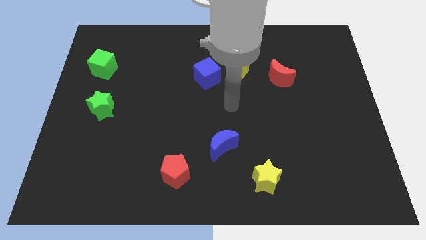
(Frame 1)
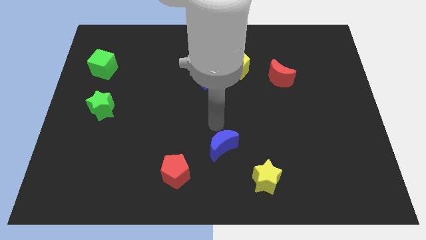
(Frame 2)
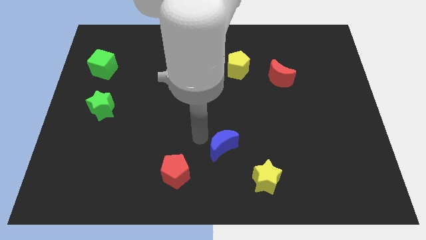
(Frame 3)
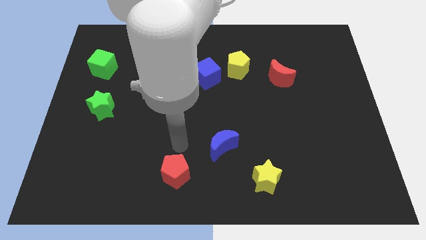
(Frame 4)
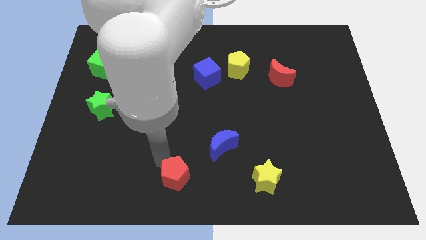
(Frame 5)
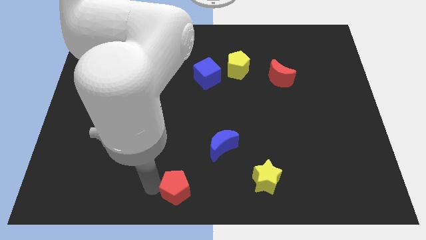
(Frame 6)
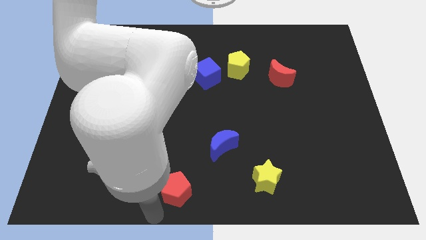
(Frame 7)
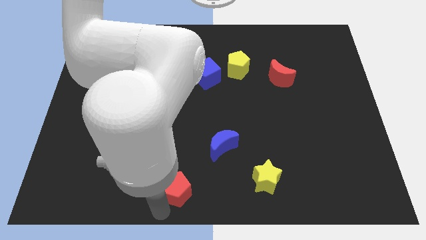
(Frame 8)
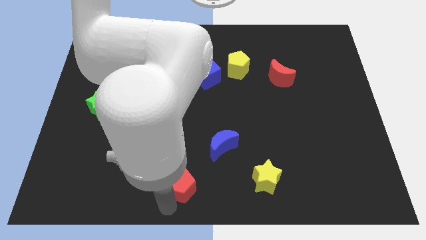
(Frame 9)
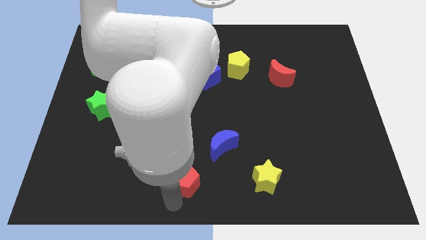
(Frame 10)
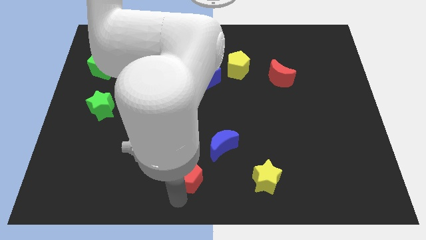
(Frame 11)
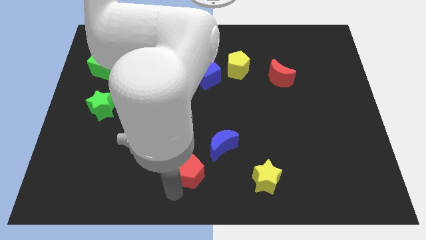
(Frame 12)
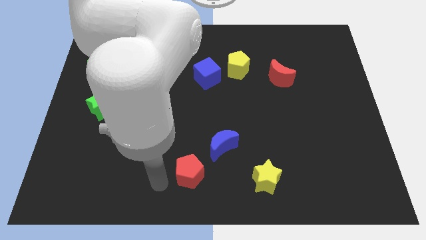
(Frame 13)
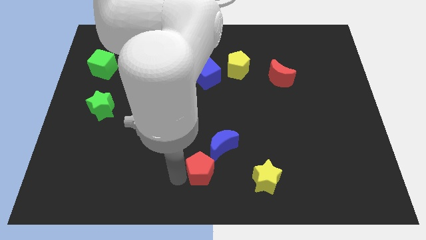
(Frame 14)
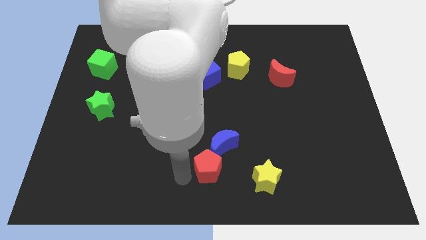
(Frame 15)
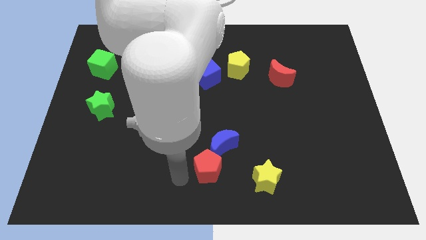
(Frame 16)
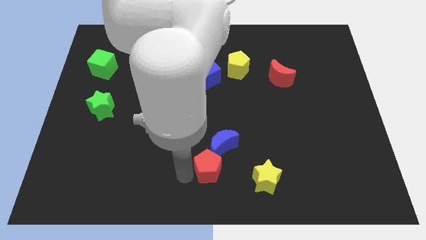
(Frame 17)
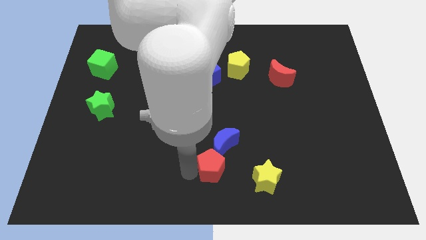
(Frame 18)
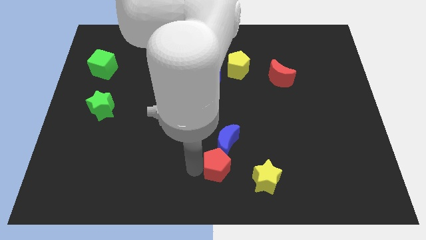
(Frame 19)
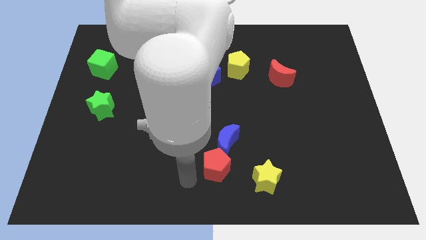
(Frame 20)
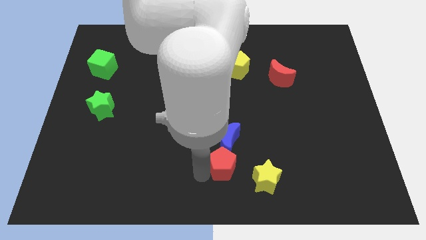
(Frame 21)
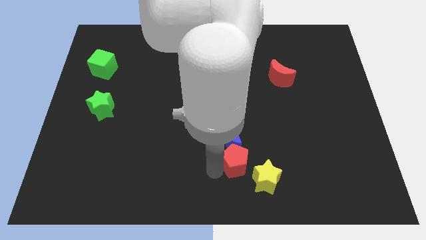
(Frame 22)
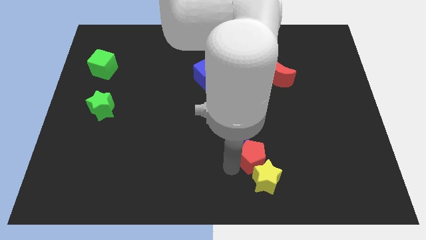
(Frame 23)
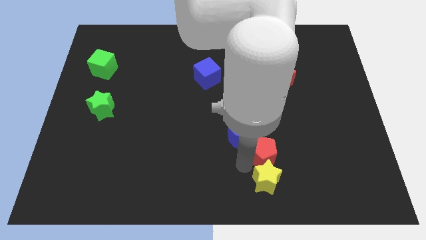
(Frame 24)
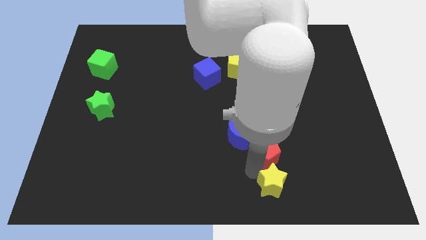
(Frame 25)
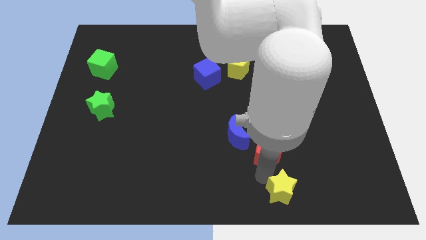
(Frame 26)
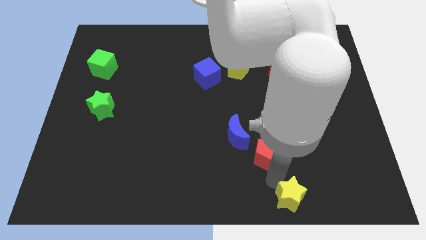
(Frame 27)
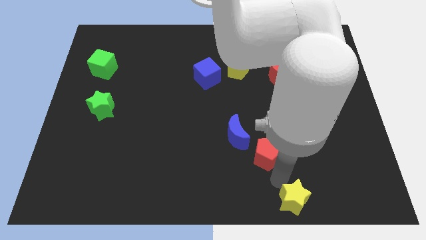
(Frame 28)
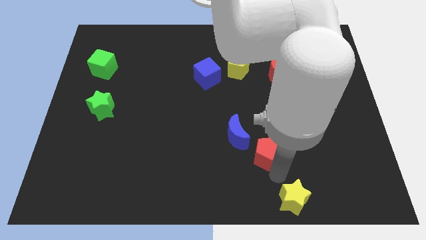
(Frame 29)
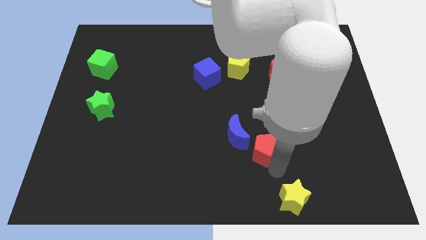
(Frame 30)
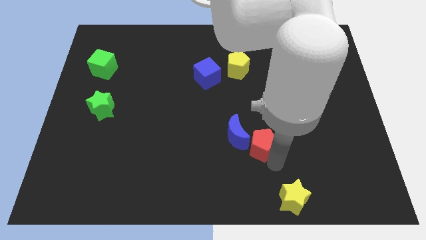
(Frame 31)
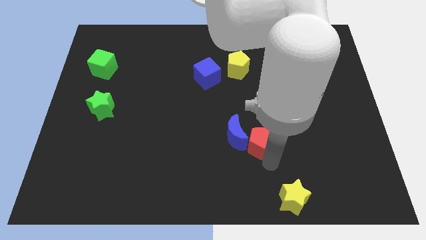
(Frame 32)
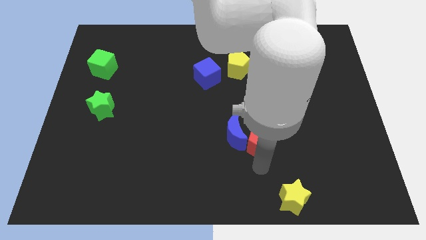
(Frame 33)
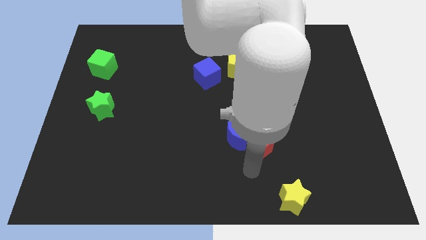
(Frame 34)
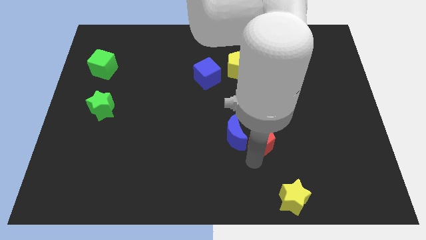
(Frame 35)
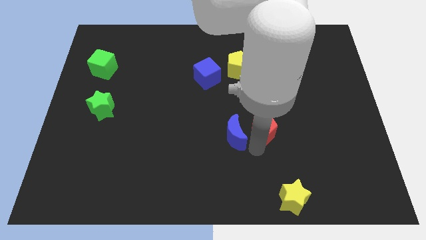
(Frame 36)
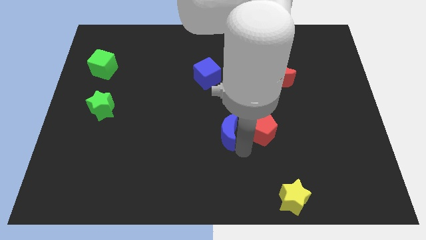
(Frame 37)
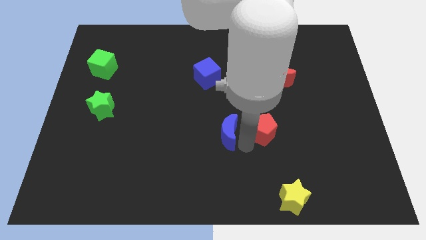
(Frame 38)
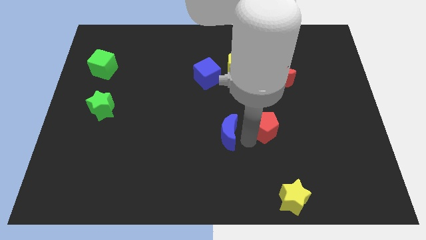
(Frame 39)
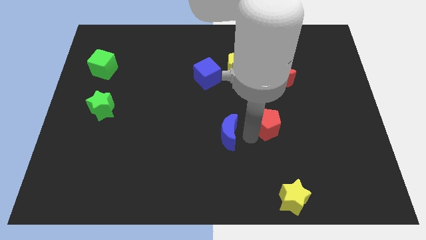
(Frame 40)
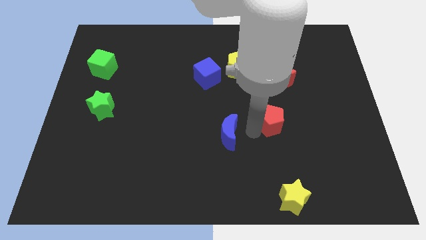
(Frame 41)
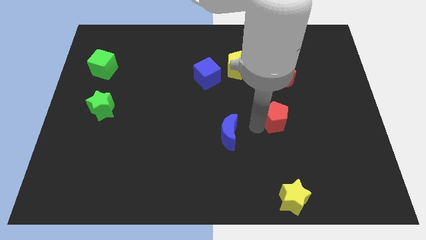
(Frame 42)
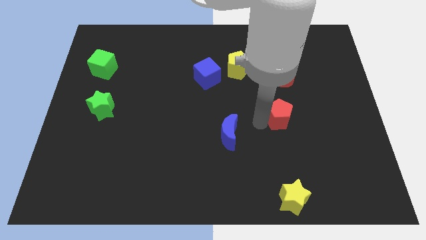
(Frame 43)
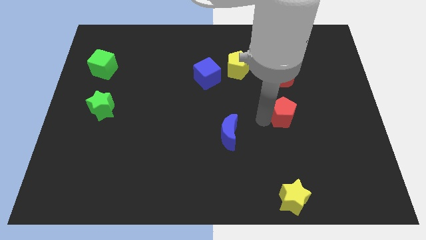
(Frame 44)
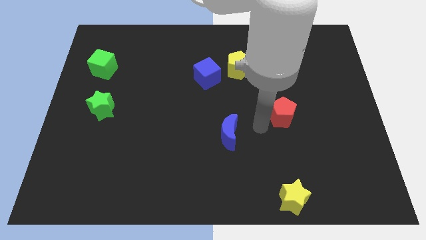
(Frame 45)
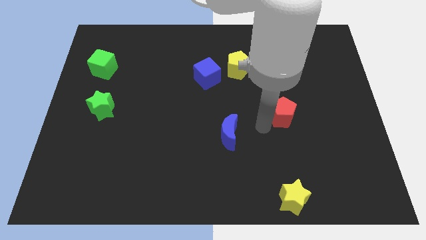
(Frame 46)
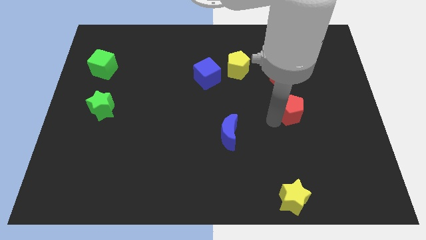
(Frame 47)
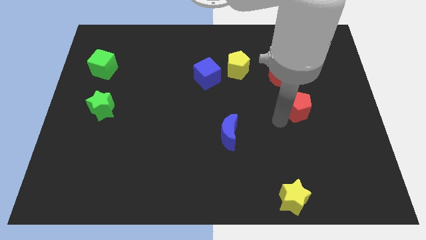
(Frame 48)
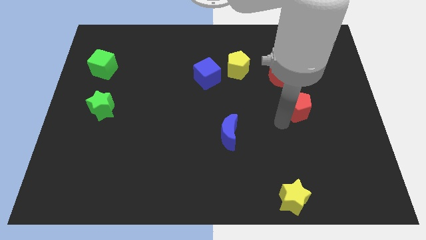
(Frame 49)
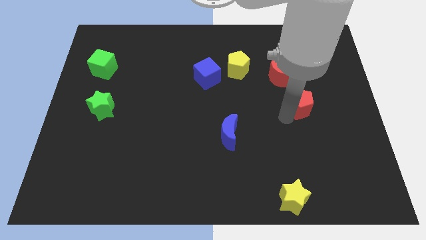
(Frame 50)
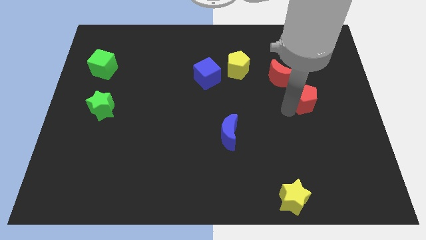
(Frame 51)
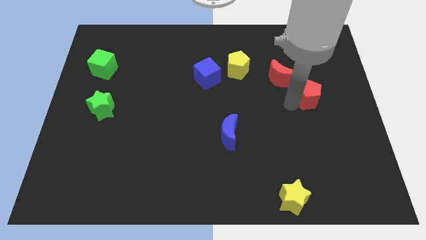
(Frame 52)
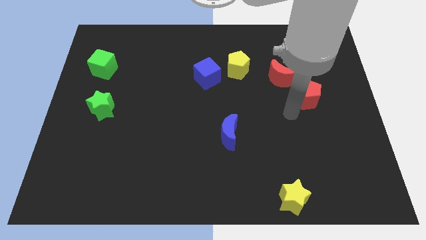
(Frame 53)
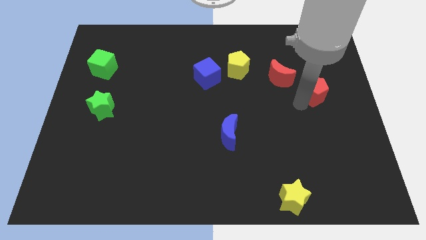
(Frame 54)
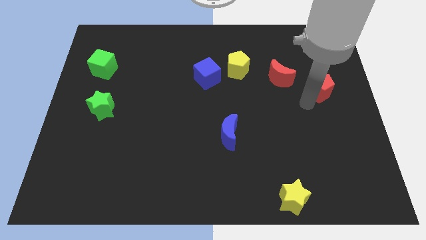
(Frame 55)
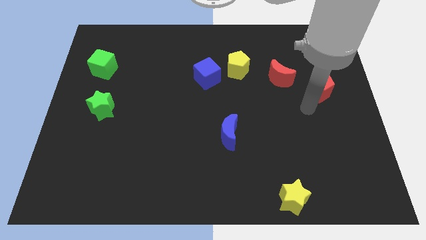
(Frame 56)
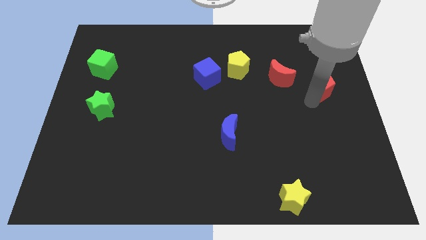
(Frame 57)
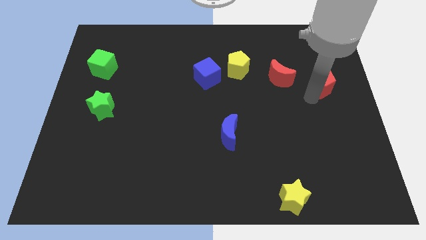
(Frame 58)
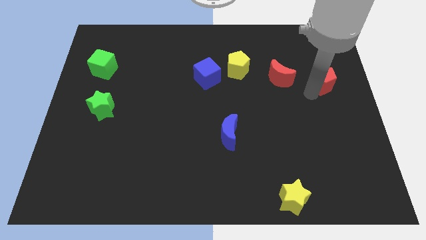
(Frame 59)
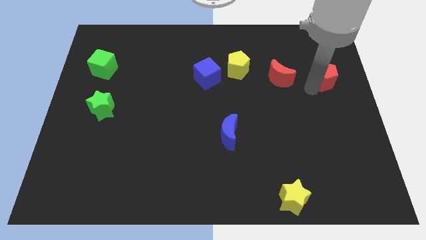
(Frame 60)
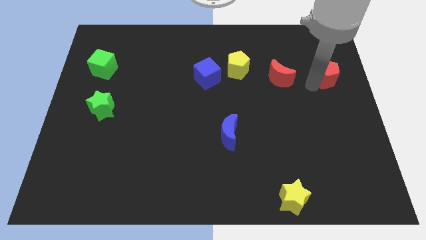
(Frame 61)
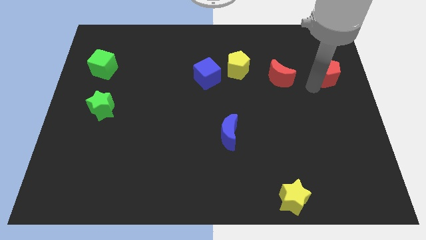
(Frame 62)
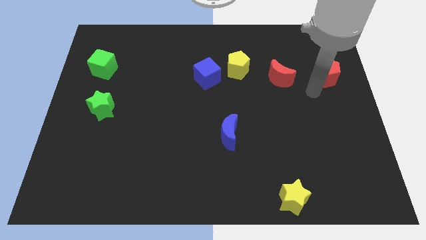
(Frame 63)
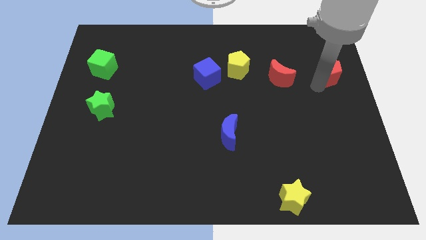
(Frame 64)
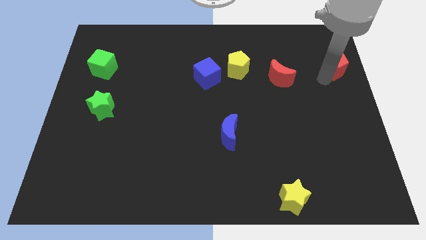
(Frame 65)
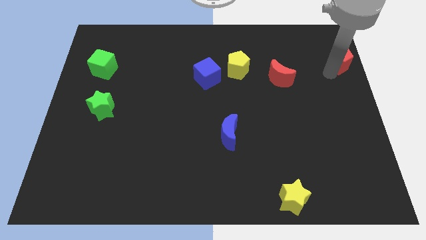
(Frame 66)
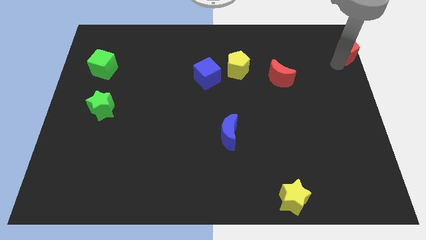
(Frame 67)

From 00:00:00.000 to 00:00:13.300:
push the red pentagon to the top right corner
